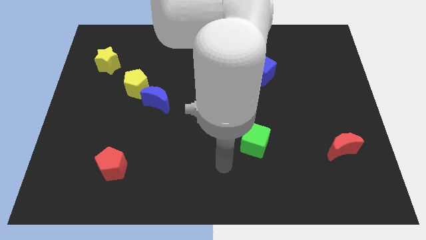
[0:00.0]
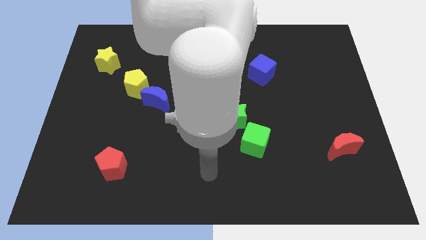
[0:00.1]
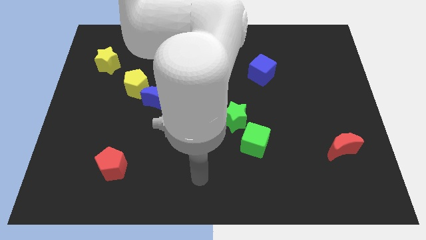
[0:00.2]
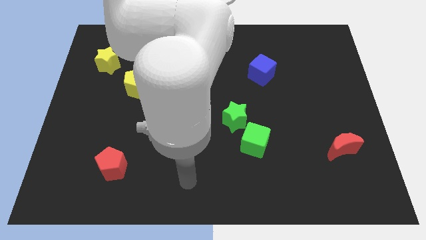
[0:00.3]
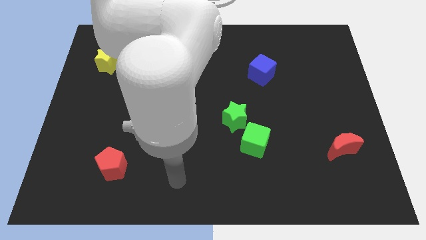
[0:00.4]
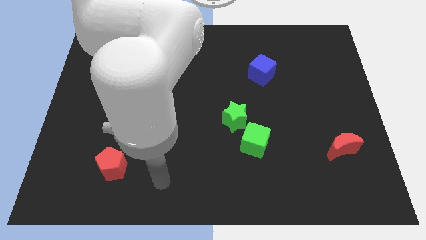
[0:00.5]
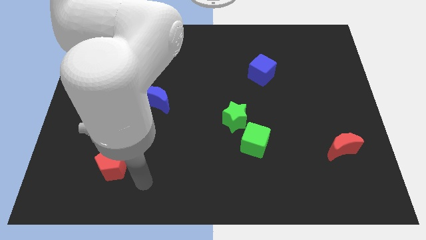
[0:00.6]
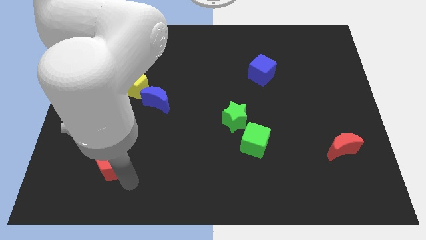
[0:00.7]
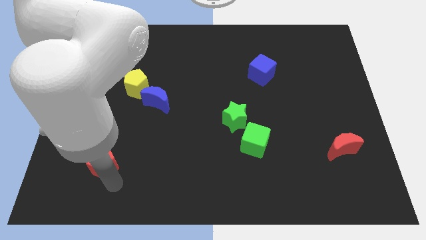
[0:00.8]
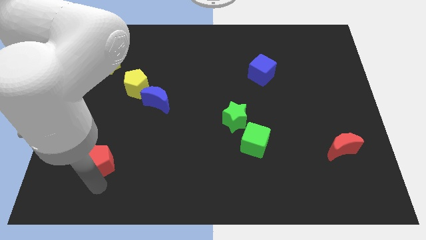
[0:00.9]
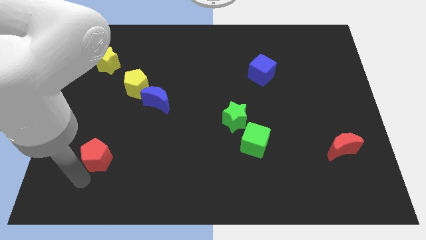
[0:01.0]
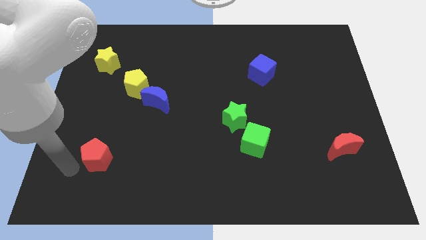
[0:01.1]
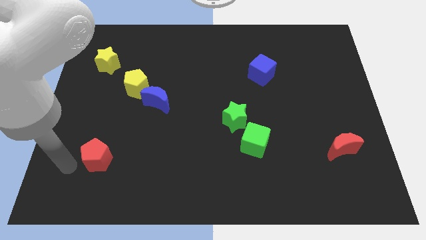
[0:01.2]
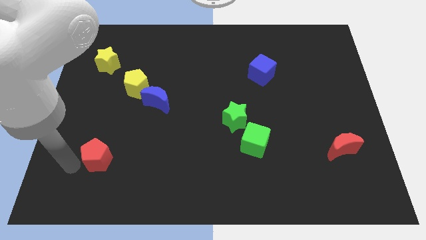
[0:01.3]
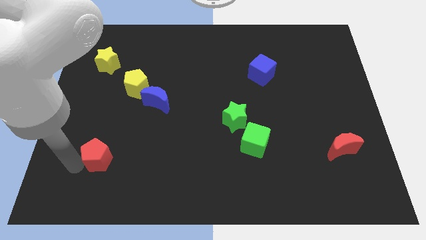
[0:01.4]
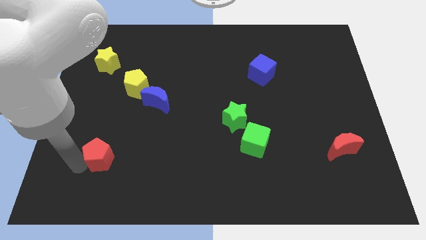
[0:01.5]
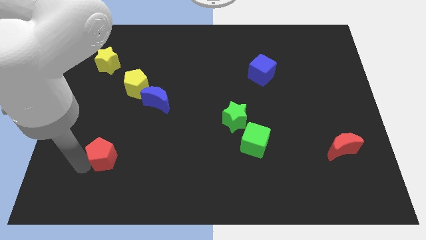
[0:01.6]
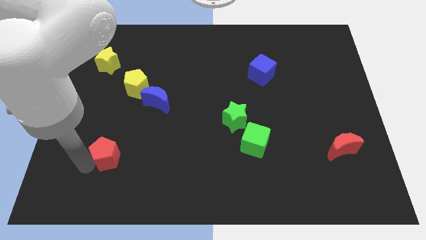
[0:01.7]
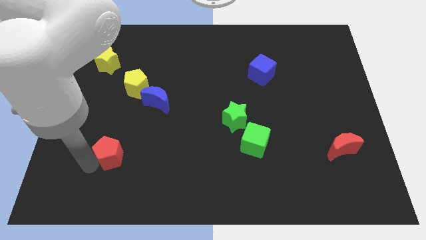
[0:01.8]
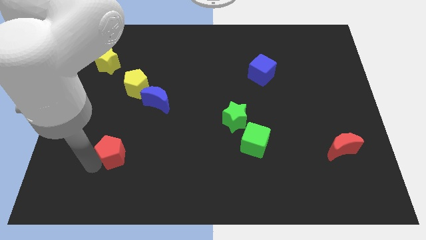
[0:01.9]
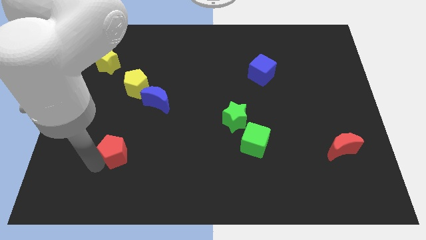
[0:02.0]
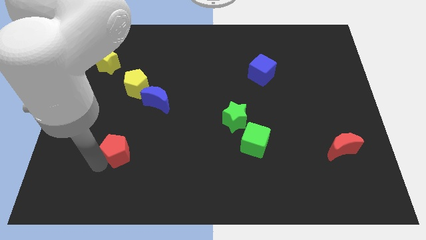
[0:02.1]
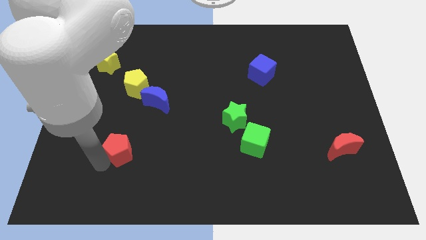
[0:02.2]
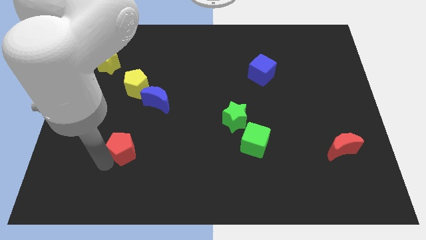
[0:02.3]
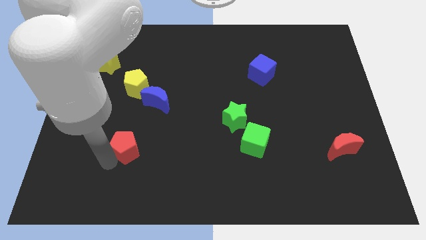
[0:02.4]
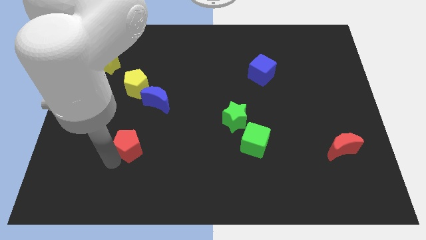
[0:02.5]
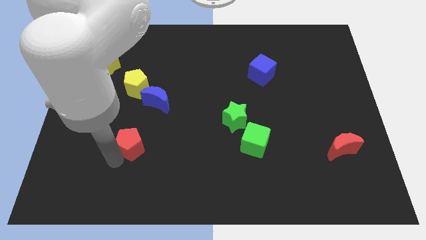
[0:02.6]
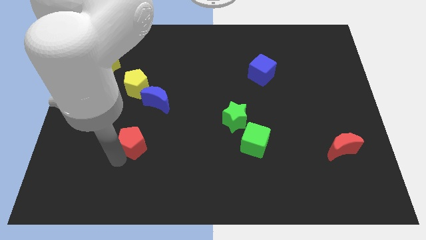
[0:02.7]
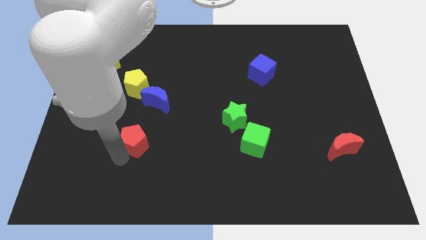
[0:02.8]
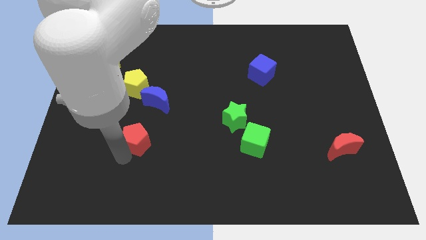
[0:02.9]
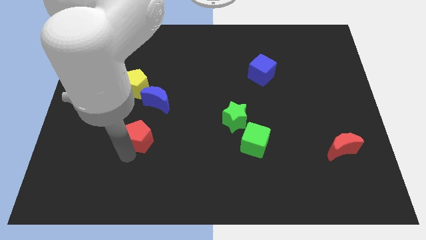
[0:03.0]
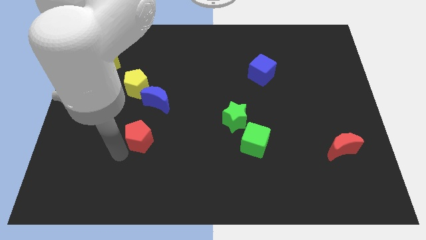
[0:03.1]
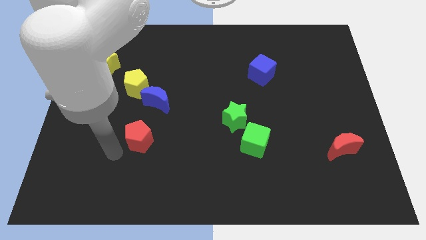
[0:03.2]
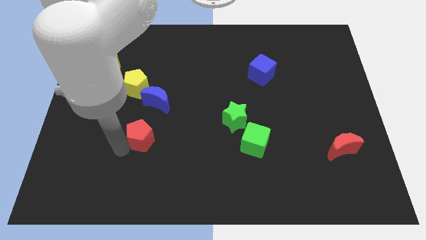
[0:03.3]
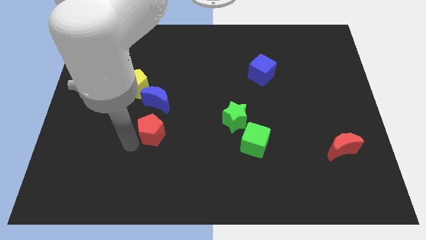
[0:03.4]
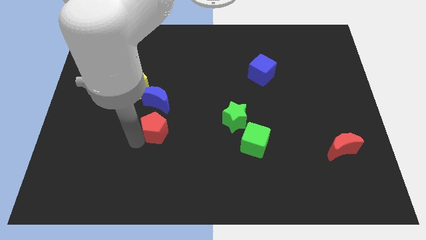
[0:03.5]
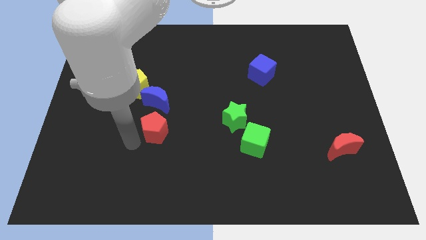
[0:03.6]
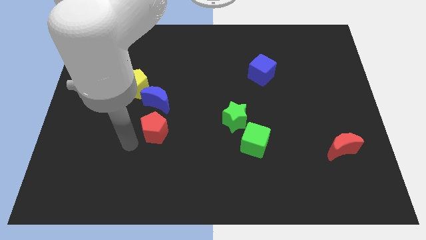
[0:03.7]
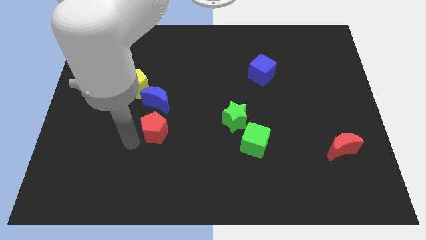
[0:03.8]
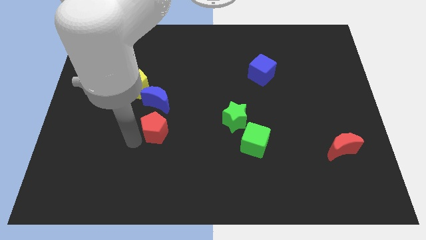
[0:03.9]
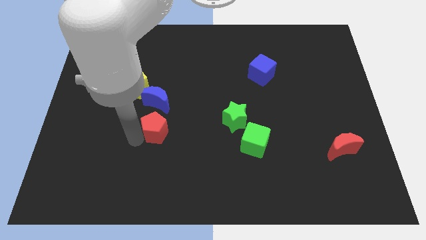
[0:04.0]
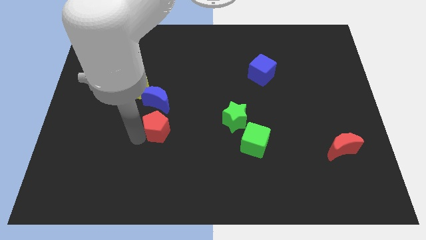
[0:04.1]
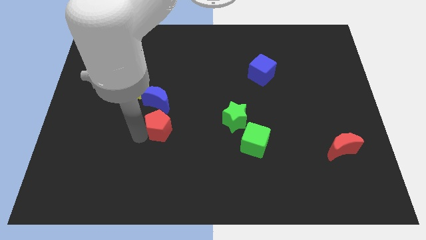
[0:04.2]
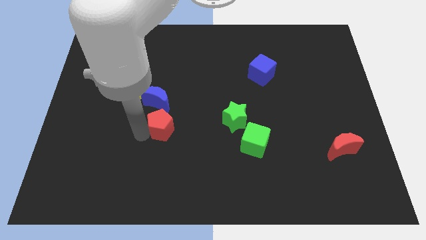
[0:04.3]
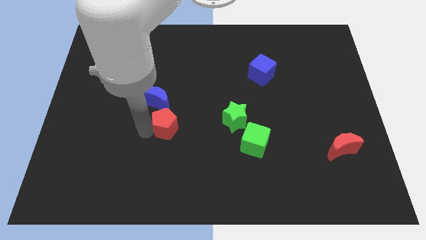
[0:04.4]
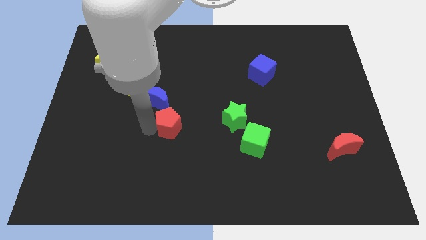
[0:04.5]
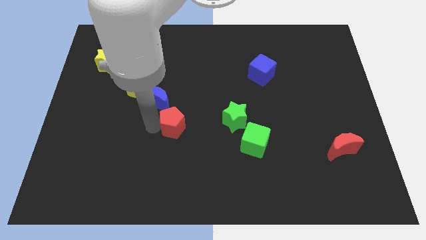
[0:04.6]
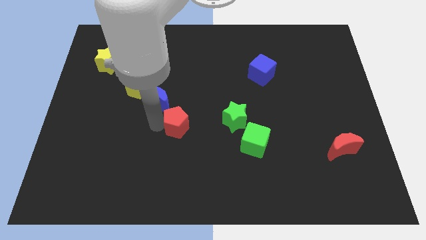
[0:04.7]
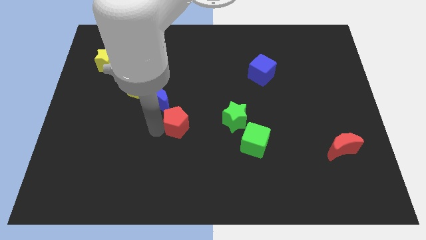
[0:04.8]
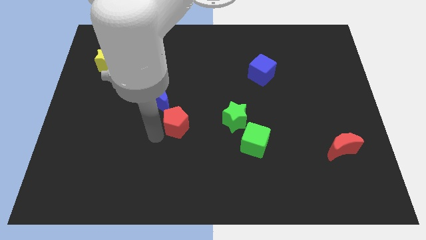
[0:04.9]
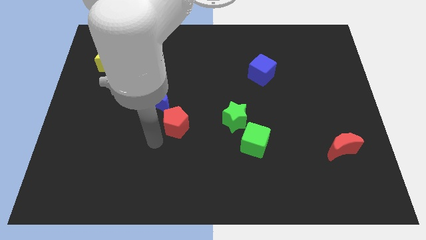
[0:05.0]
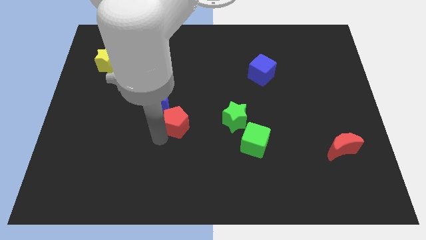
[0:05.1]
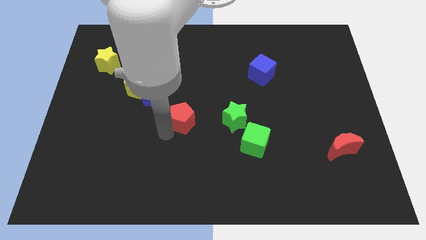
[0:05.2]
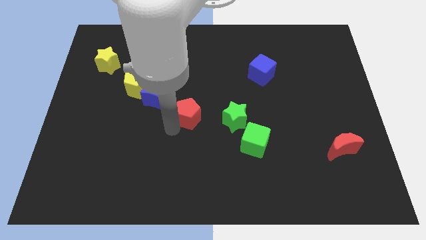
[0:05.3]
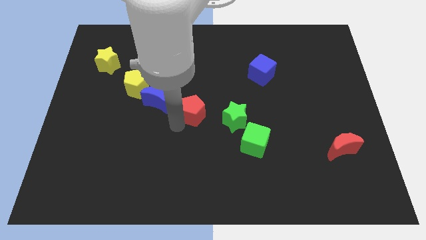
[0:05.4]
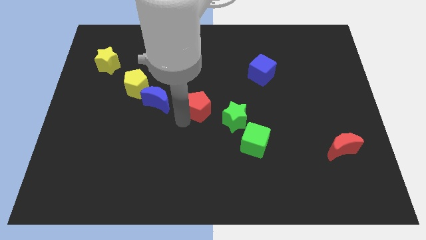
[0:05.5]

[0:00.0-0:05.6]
slide the red pentagon diagonally up and to the left of the green star

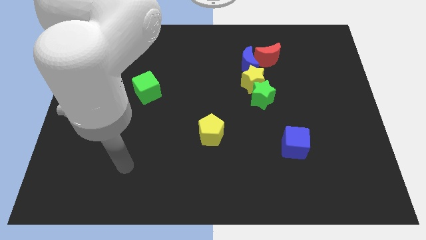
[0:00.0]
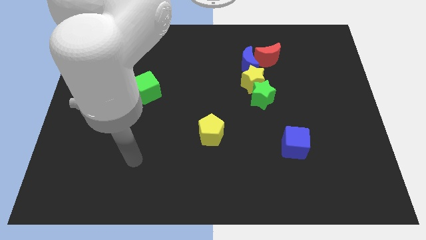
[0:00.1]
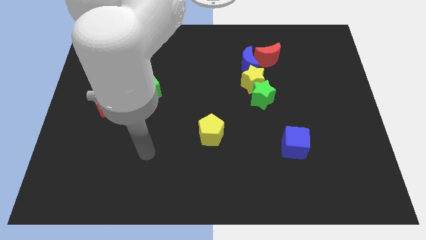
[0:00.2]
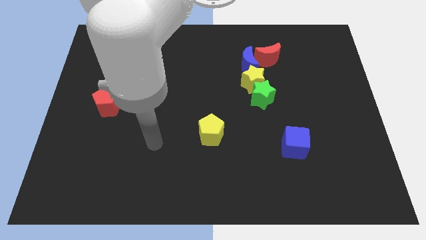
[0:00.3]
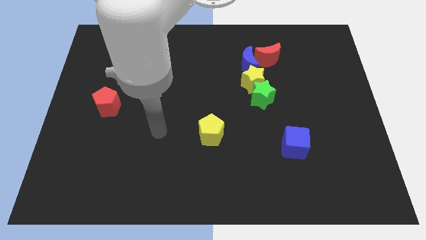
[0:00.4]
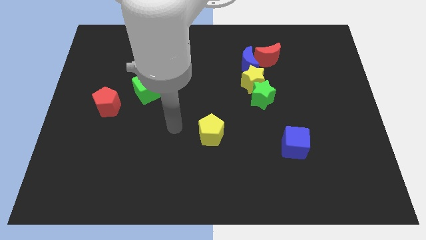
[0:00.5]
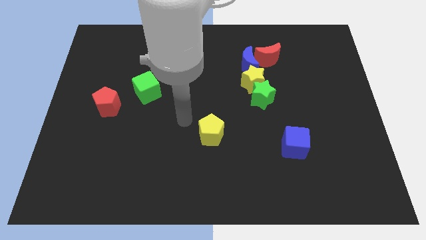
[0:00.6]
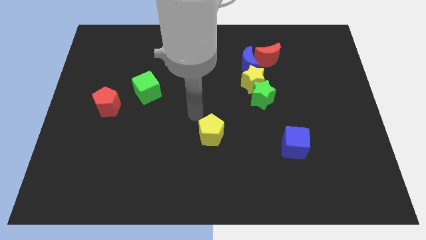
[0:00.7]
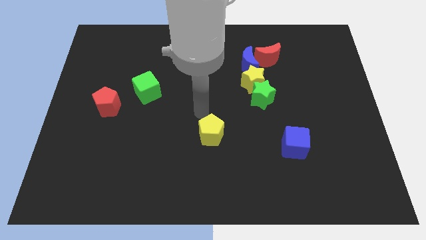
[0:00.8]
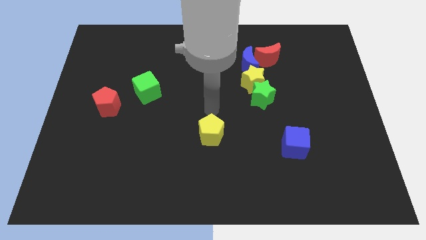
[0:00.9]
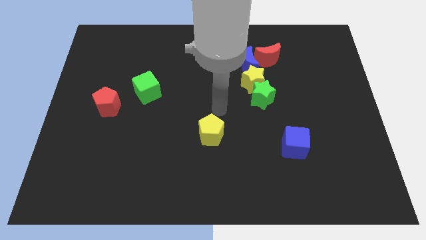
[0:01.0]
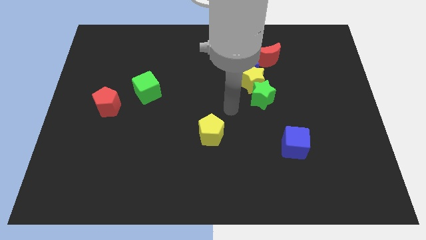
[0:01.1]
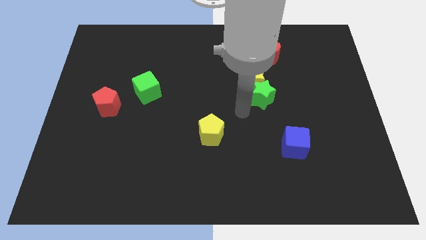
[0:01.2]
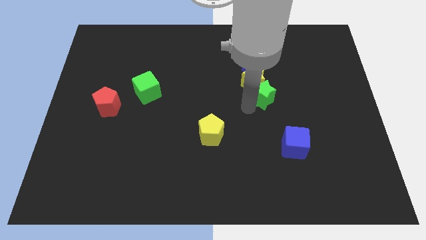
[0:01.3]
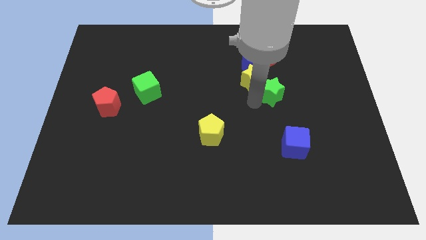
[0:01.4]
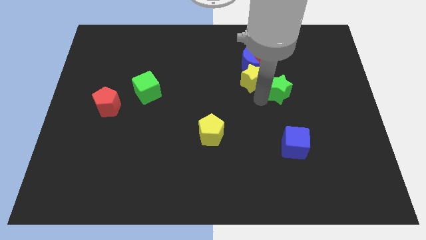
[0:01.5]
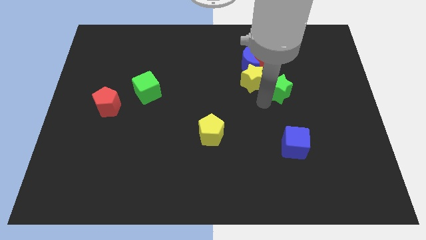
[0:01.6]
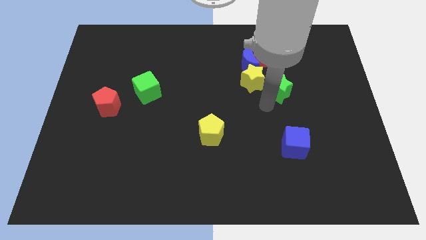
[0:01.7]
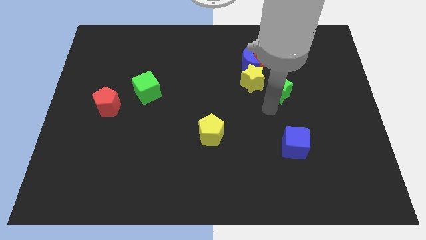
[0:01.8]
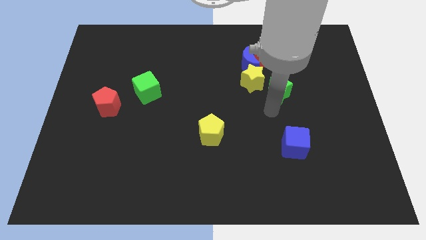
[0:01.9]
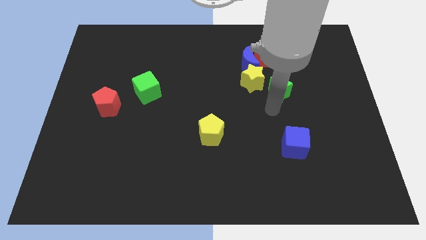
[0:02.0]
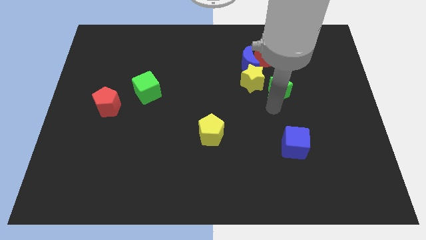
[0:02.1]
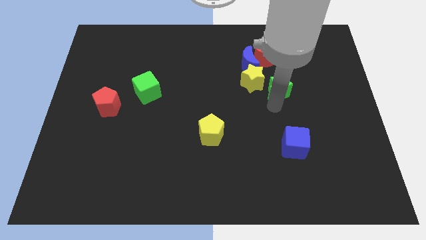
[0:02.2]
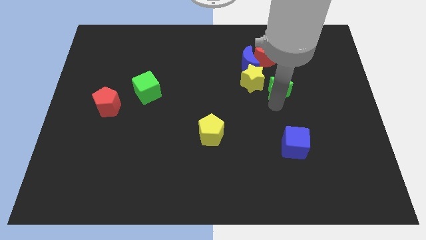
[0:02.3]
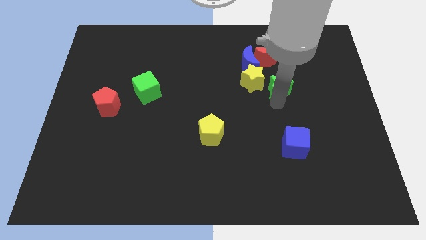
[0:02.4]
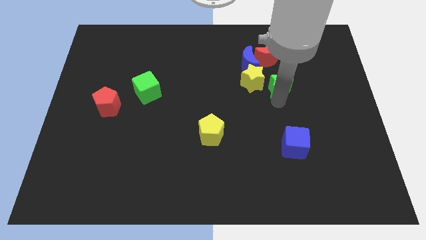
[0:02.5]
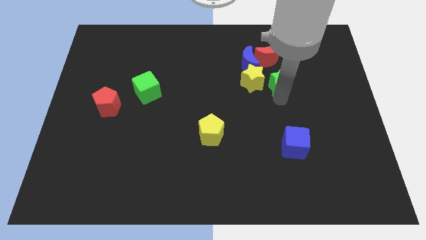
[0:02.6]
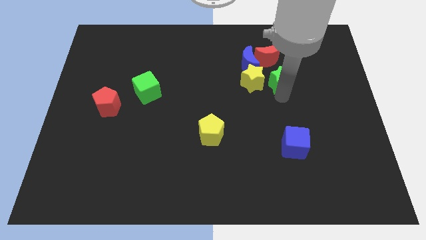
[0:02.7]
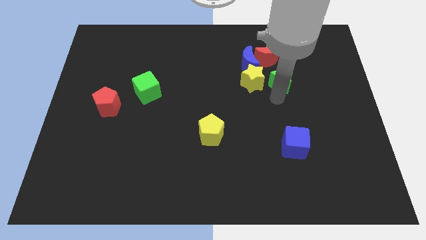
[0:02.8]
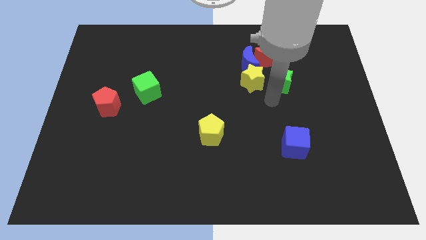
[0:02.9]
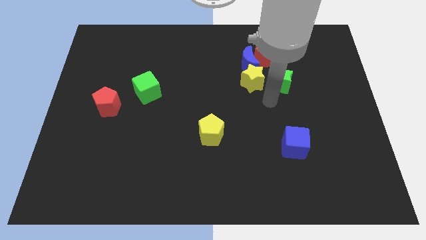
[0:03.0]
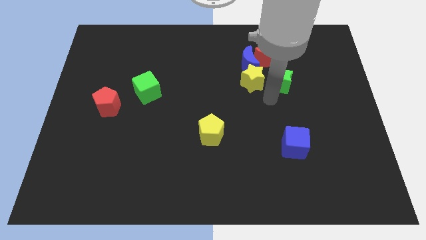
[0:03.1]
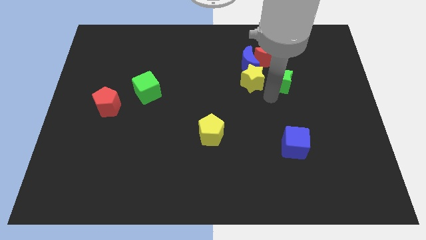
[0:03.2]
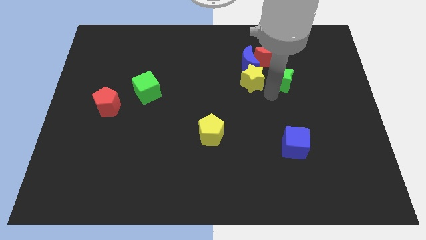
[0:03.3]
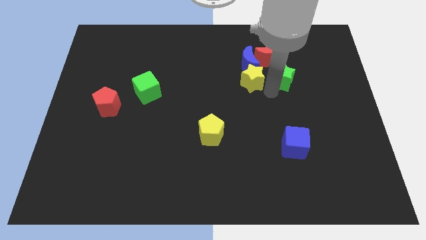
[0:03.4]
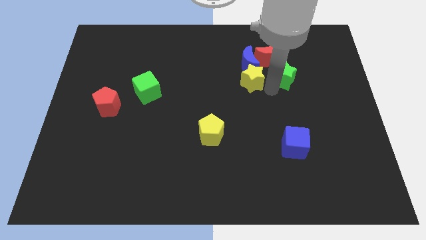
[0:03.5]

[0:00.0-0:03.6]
put the green star to the right of the blue moon
